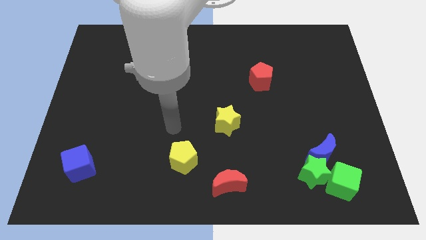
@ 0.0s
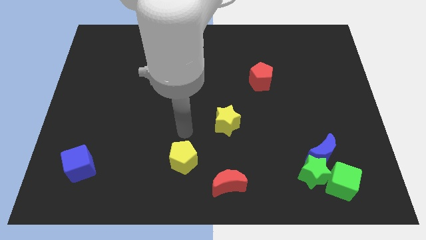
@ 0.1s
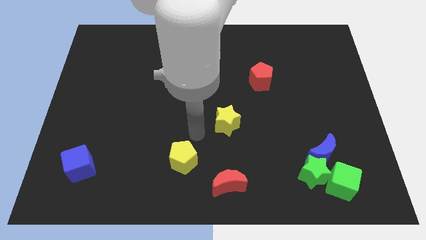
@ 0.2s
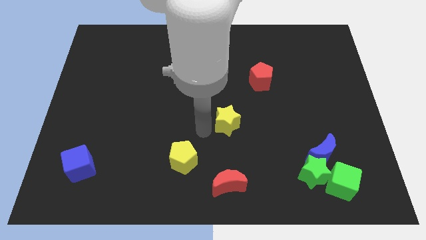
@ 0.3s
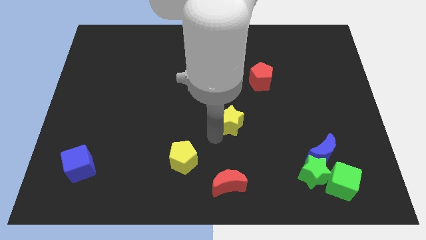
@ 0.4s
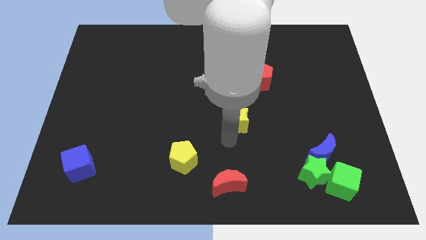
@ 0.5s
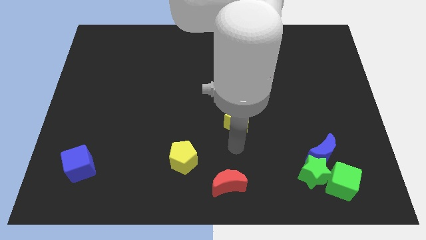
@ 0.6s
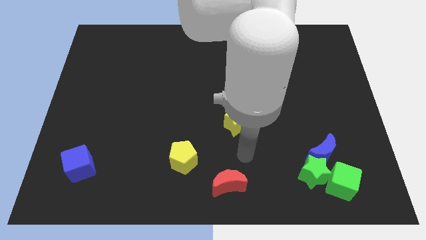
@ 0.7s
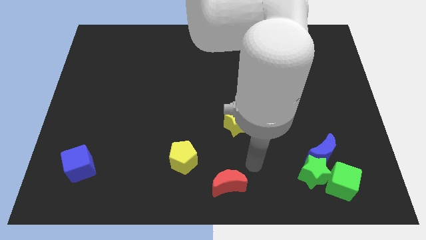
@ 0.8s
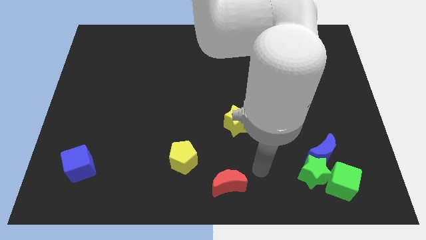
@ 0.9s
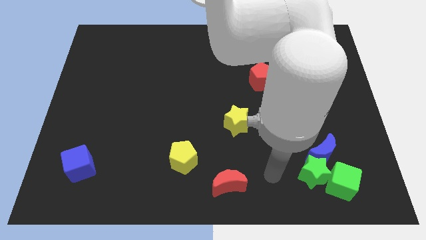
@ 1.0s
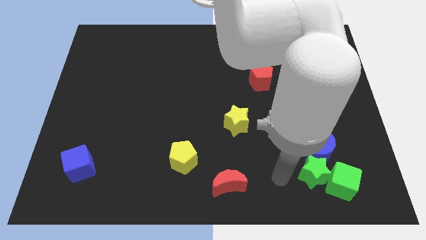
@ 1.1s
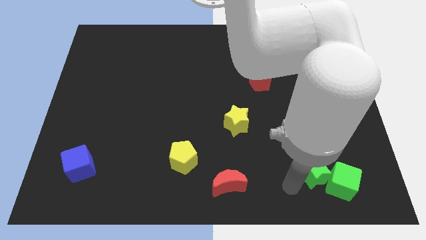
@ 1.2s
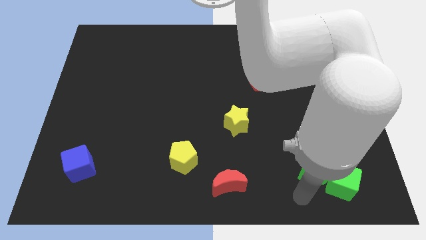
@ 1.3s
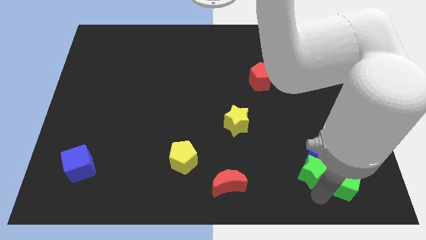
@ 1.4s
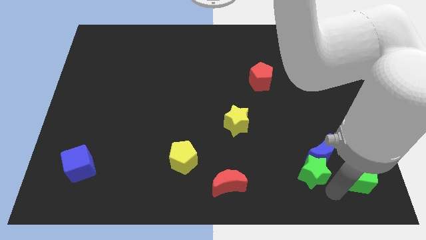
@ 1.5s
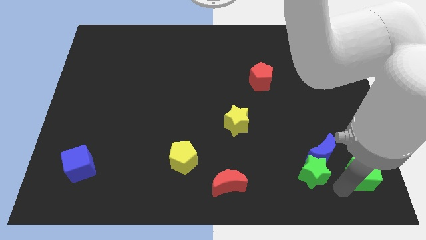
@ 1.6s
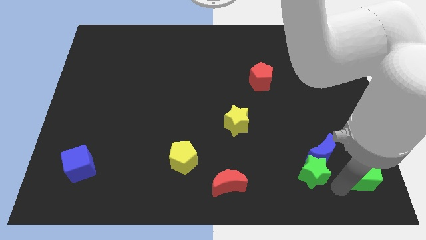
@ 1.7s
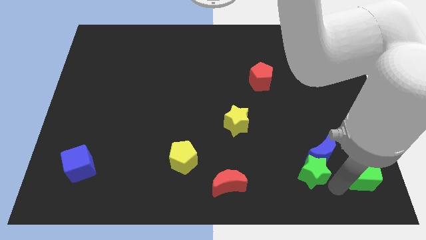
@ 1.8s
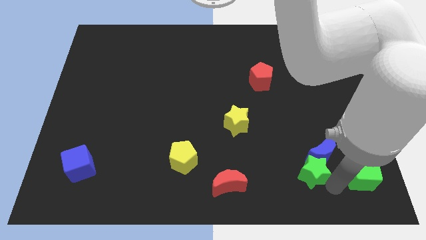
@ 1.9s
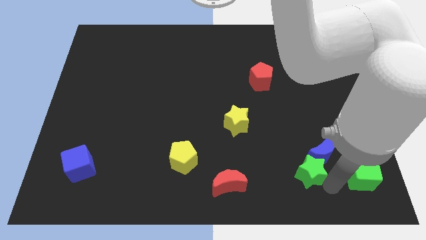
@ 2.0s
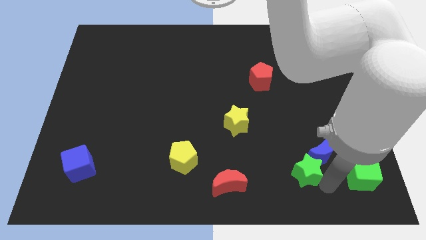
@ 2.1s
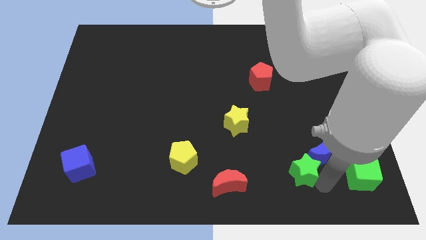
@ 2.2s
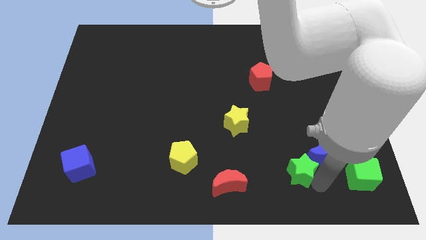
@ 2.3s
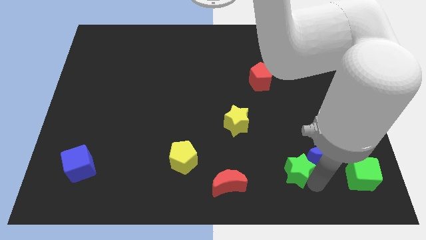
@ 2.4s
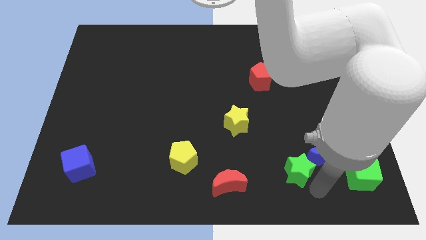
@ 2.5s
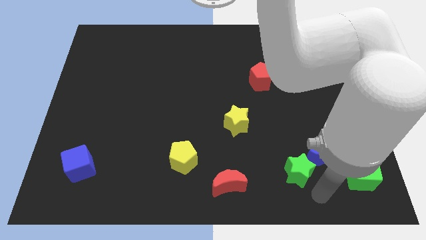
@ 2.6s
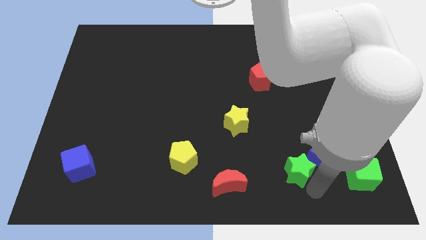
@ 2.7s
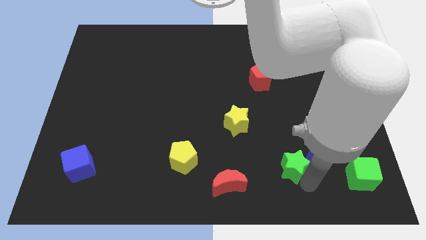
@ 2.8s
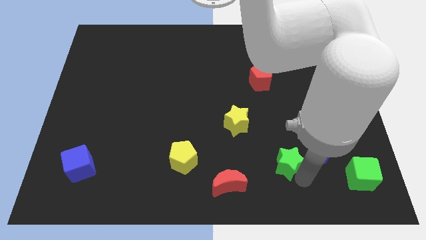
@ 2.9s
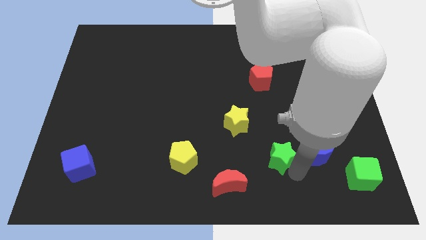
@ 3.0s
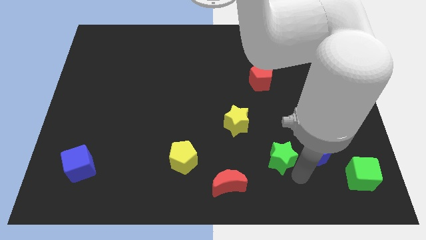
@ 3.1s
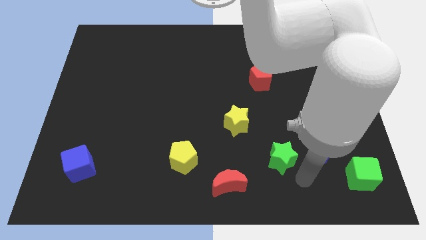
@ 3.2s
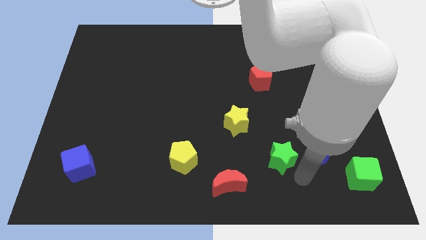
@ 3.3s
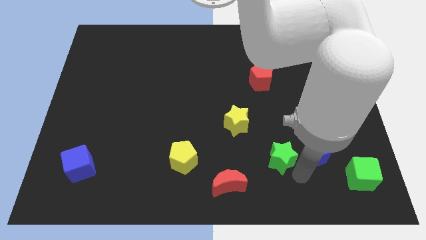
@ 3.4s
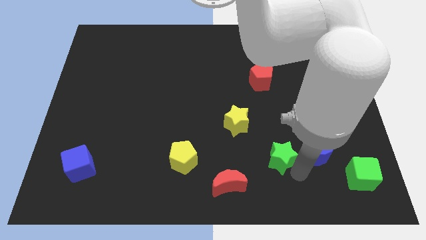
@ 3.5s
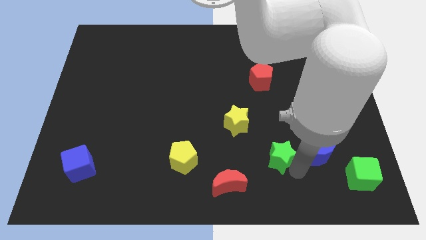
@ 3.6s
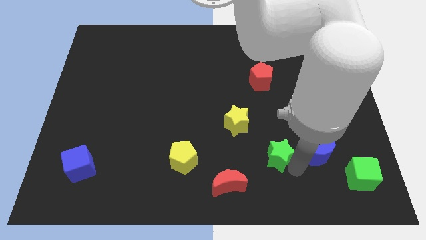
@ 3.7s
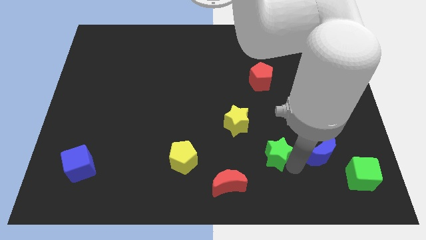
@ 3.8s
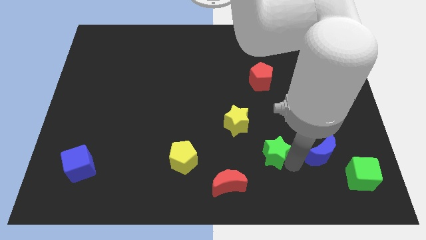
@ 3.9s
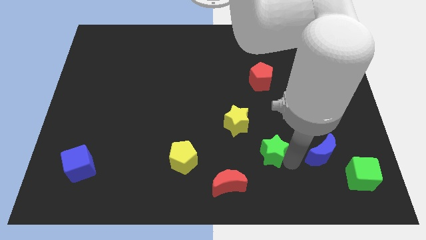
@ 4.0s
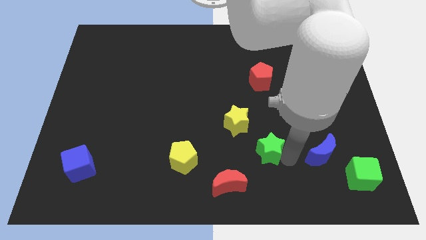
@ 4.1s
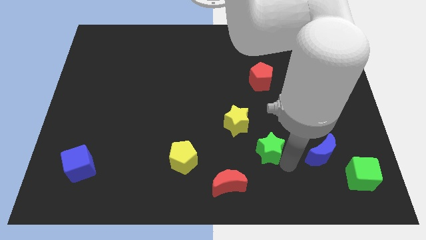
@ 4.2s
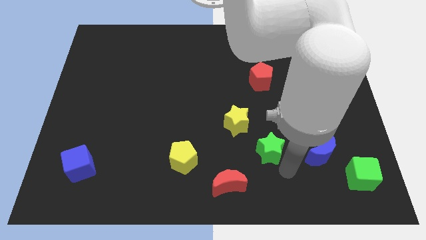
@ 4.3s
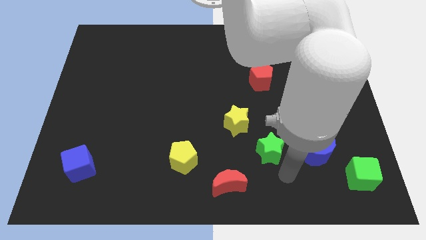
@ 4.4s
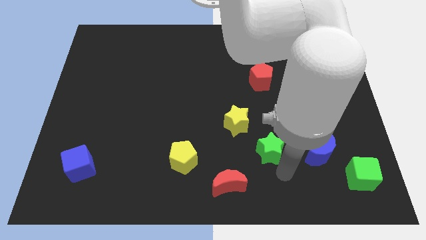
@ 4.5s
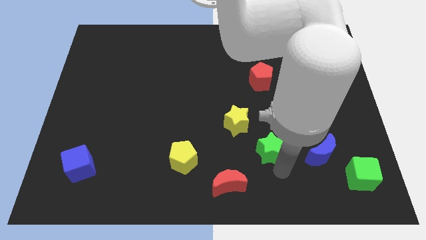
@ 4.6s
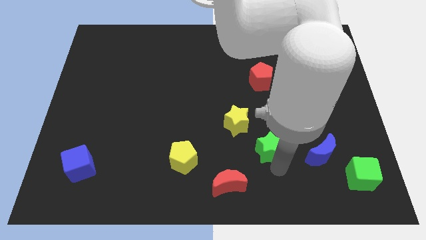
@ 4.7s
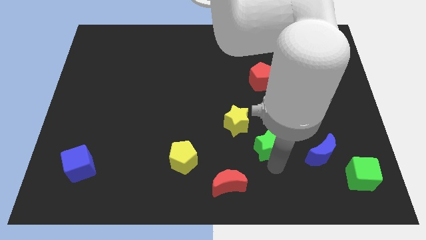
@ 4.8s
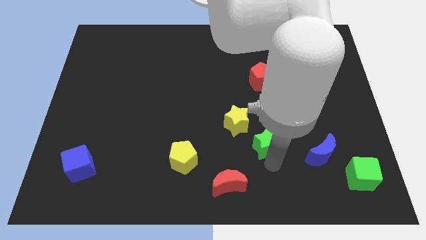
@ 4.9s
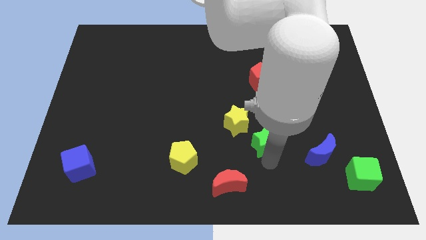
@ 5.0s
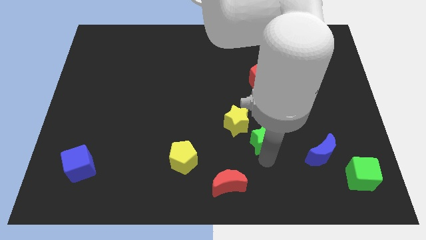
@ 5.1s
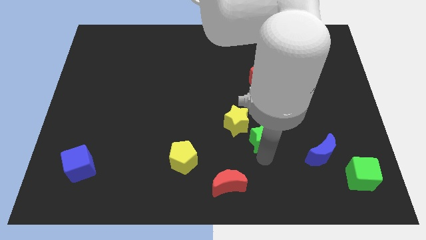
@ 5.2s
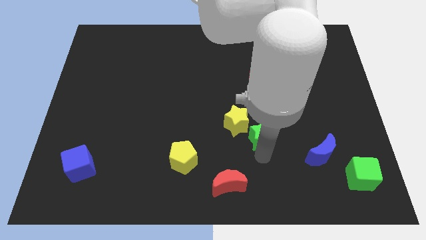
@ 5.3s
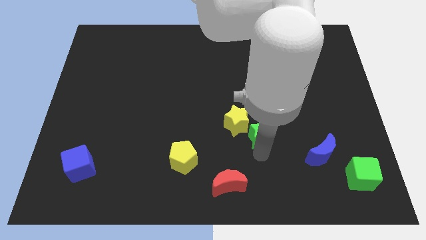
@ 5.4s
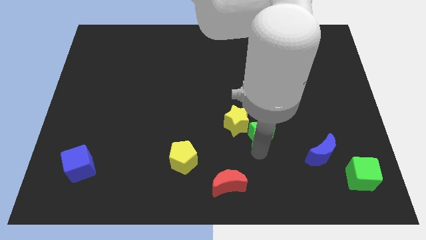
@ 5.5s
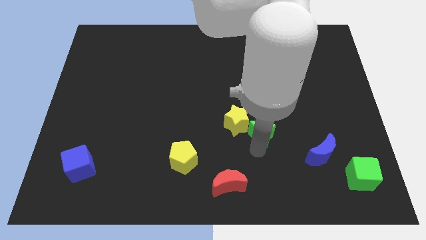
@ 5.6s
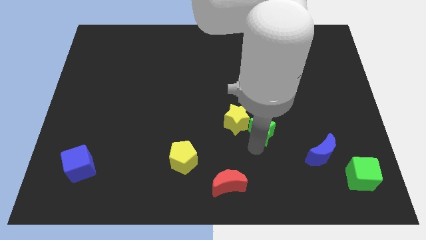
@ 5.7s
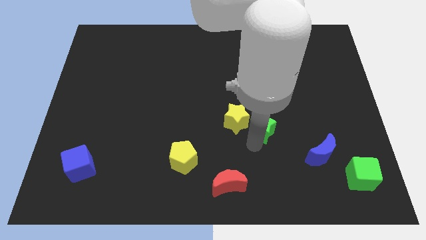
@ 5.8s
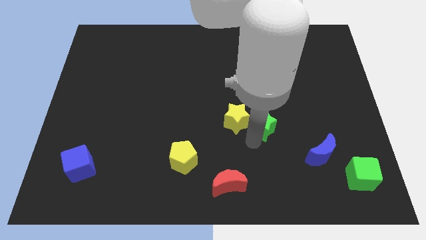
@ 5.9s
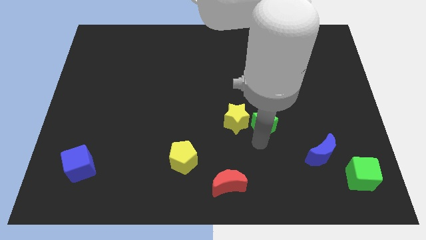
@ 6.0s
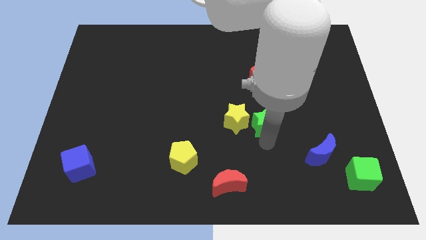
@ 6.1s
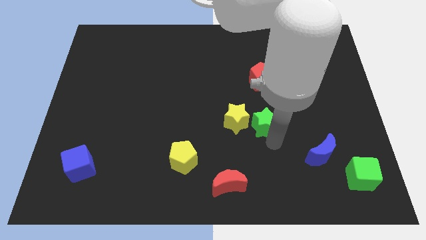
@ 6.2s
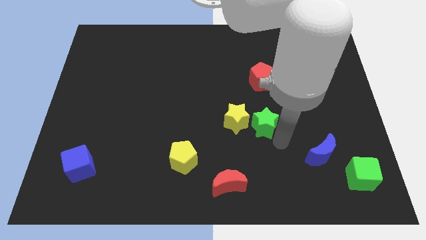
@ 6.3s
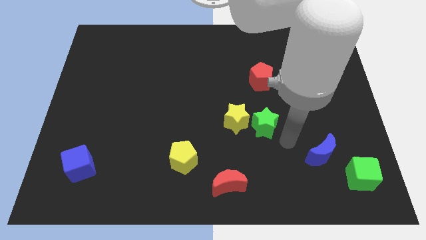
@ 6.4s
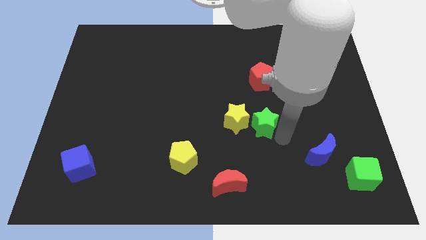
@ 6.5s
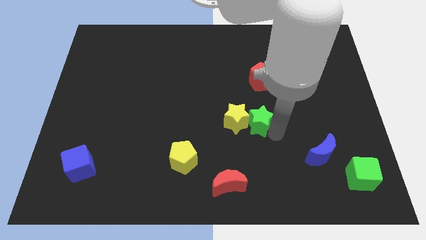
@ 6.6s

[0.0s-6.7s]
move the green star to the middle of the board
